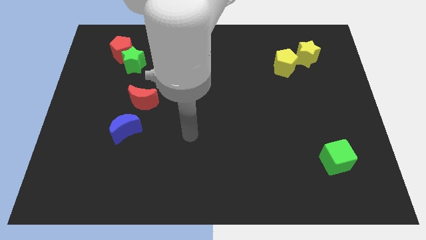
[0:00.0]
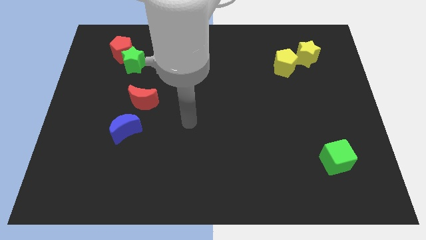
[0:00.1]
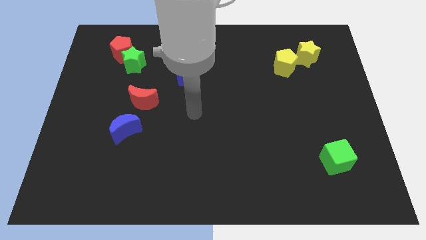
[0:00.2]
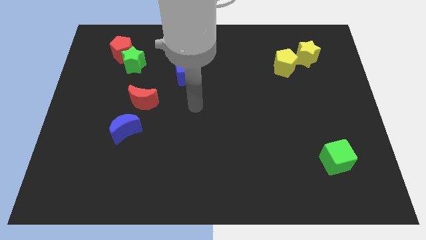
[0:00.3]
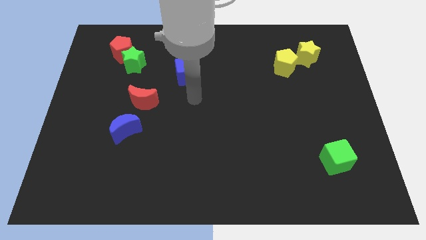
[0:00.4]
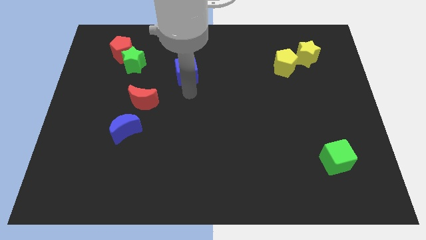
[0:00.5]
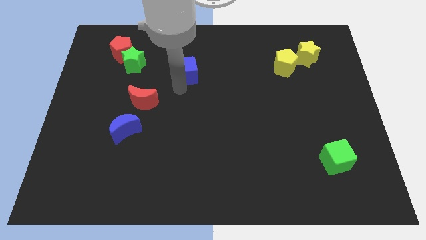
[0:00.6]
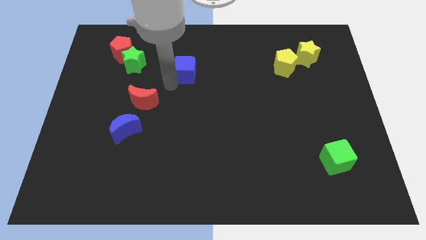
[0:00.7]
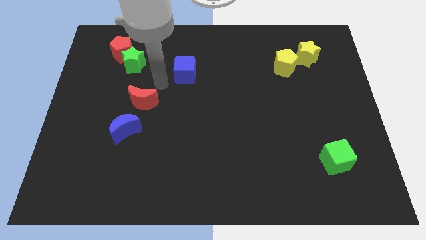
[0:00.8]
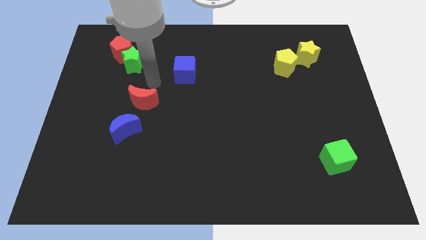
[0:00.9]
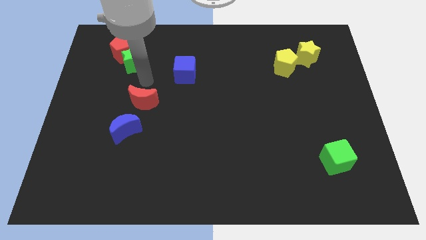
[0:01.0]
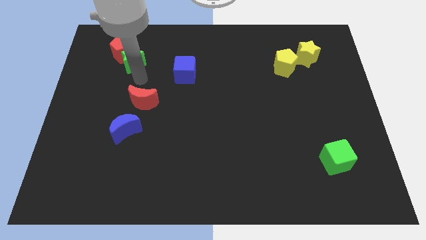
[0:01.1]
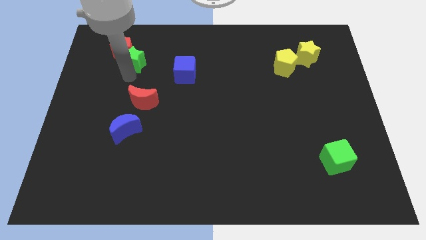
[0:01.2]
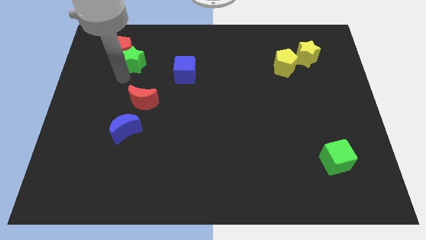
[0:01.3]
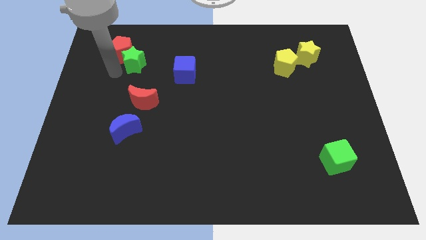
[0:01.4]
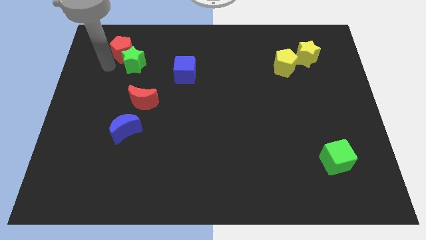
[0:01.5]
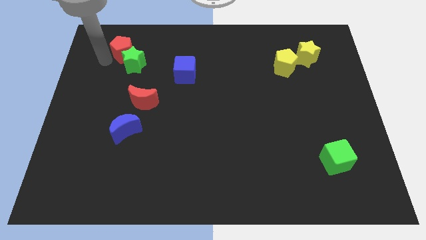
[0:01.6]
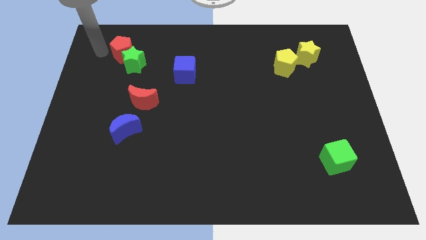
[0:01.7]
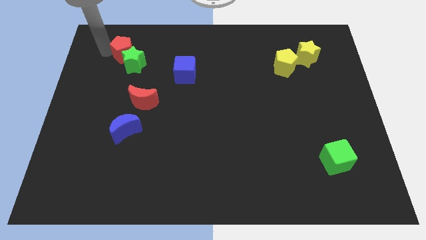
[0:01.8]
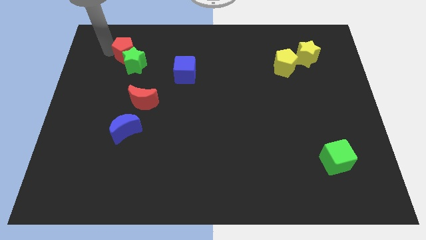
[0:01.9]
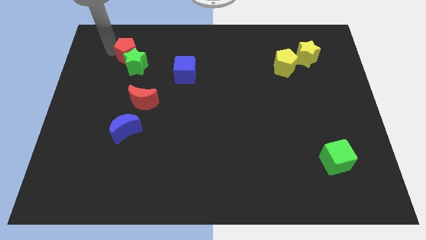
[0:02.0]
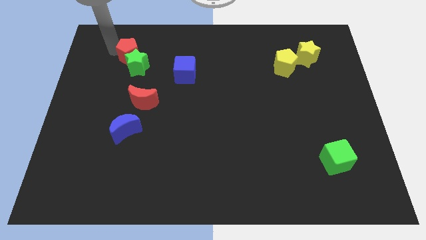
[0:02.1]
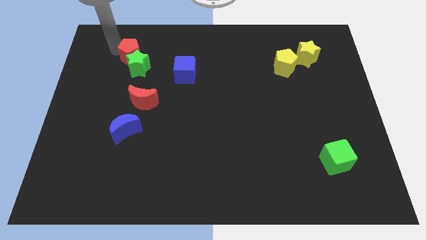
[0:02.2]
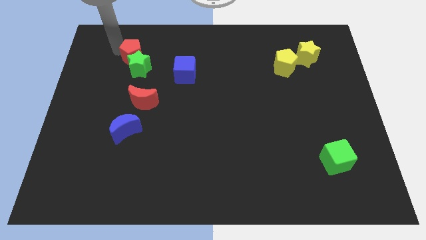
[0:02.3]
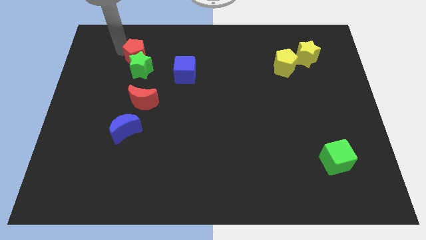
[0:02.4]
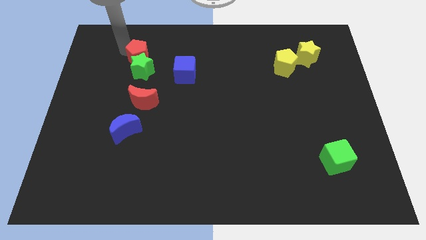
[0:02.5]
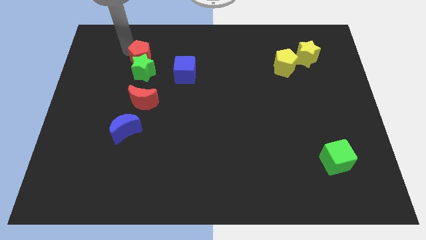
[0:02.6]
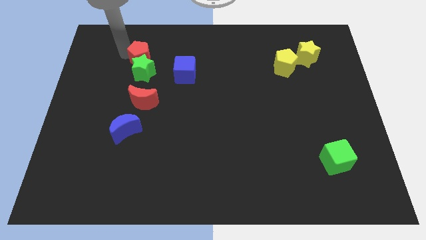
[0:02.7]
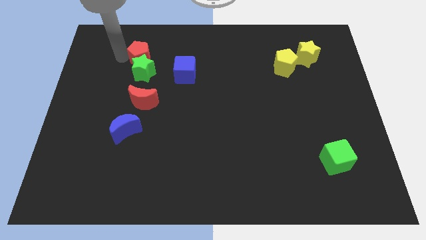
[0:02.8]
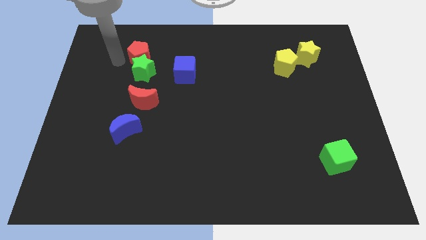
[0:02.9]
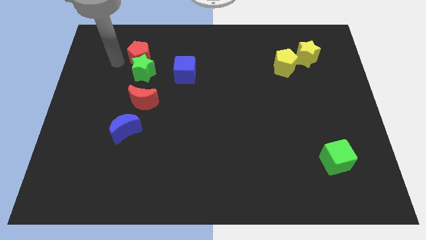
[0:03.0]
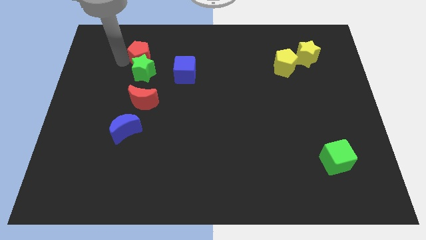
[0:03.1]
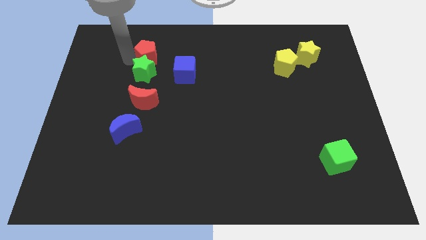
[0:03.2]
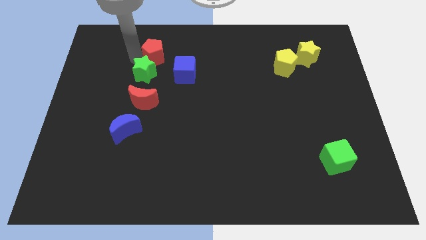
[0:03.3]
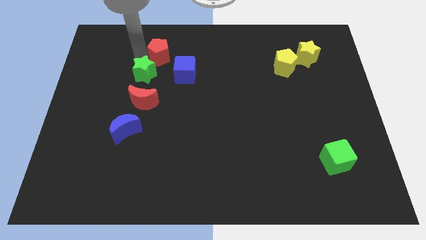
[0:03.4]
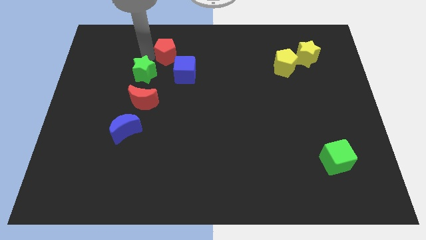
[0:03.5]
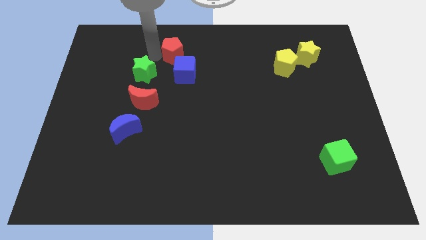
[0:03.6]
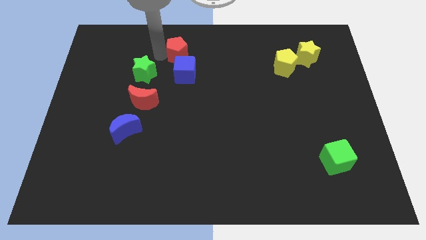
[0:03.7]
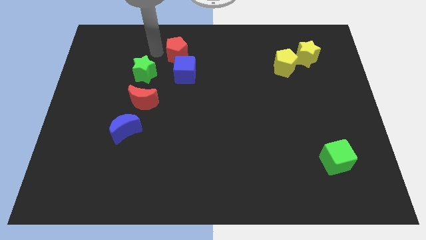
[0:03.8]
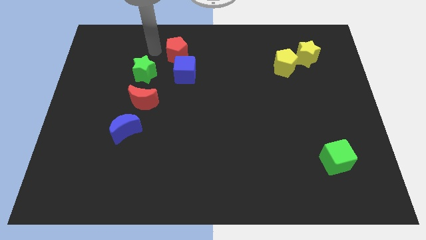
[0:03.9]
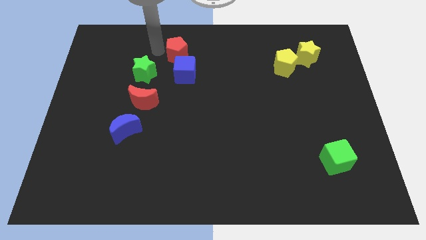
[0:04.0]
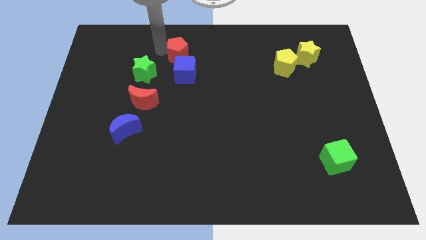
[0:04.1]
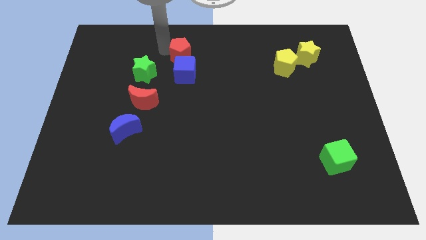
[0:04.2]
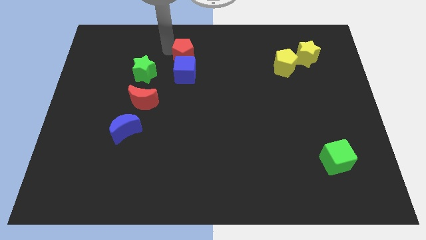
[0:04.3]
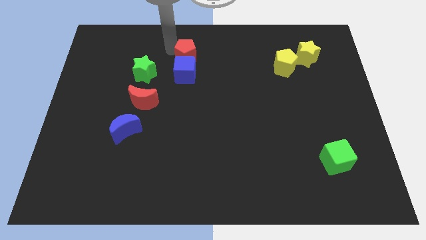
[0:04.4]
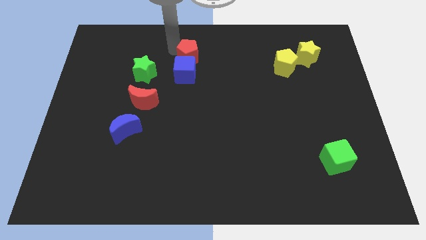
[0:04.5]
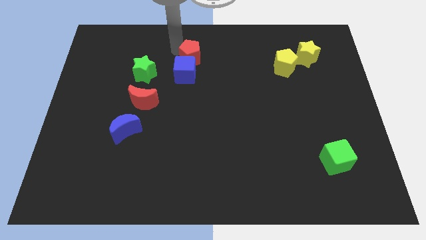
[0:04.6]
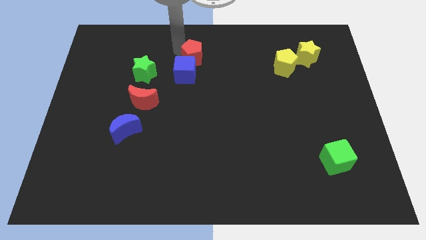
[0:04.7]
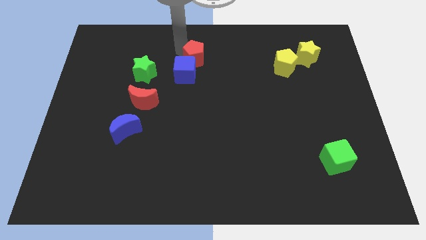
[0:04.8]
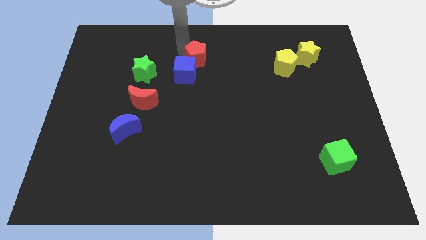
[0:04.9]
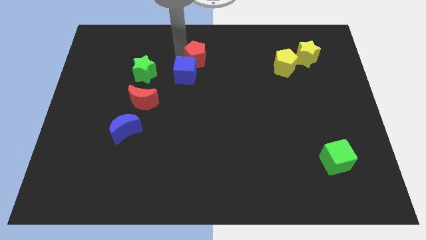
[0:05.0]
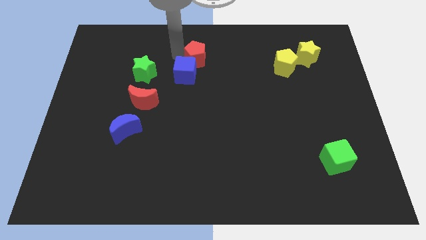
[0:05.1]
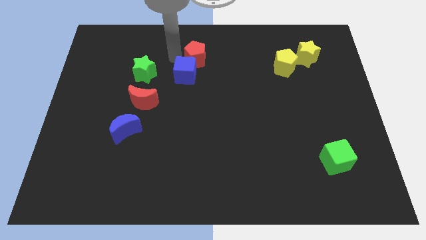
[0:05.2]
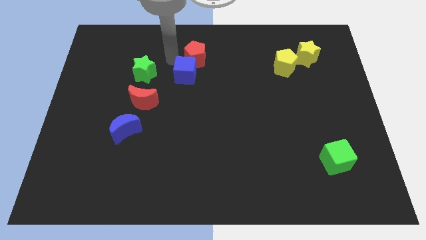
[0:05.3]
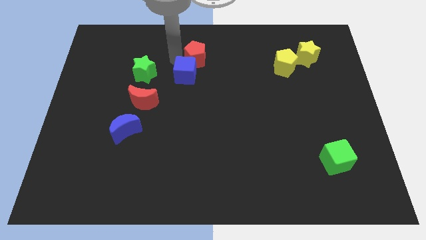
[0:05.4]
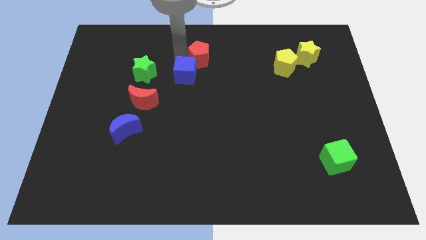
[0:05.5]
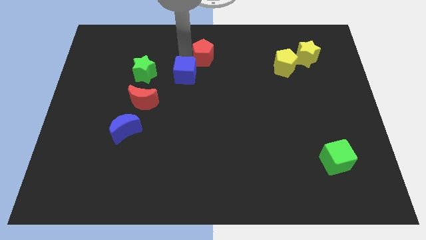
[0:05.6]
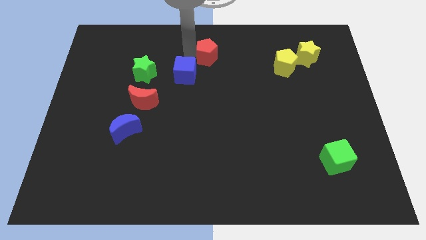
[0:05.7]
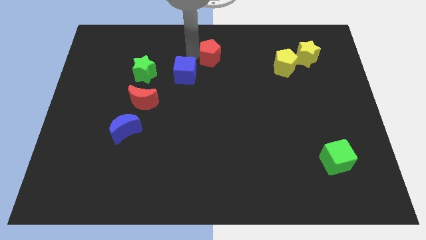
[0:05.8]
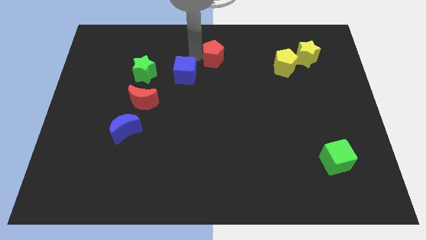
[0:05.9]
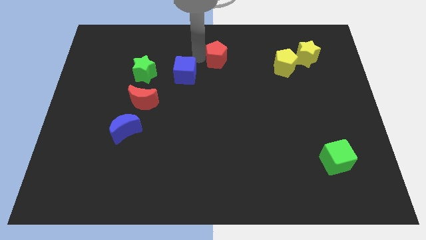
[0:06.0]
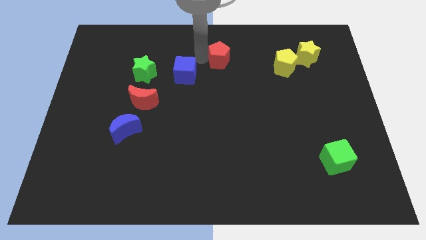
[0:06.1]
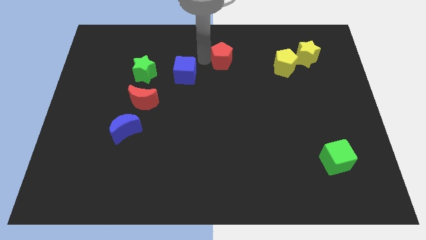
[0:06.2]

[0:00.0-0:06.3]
push the red pentagon to the left of the yellow pentagon

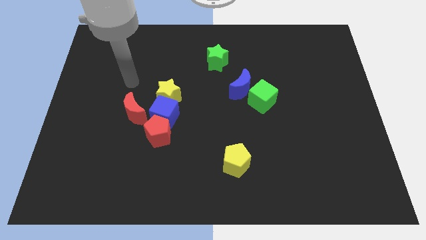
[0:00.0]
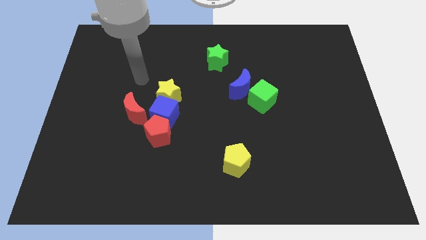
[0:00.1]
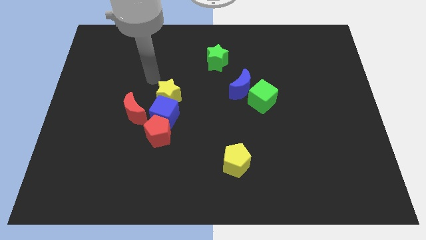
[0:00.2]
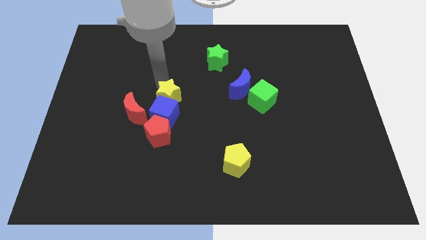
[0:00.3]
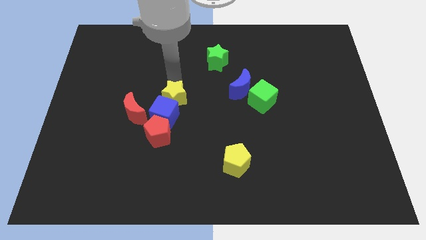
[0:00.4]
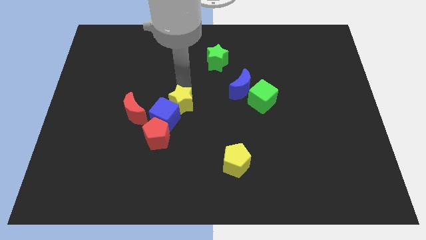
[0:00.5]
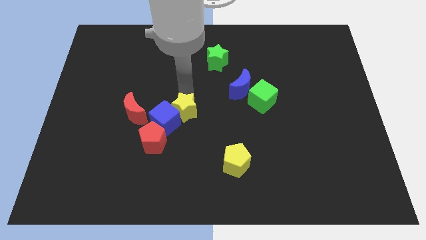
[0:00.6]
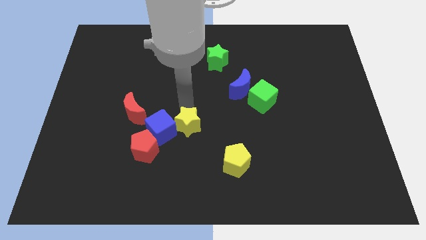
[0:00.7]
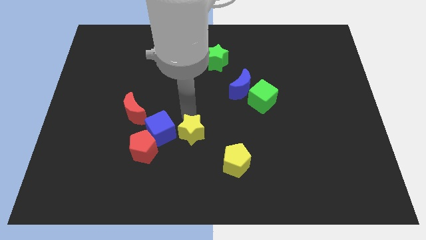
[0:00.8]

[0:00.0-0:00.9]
put the red pentagon to the left side of the blue cube
